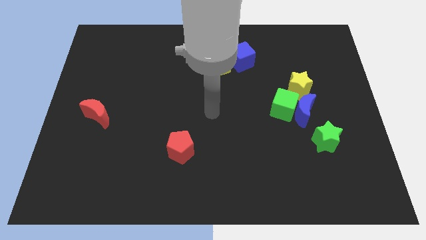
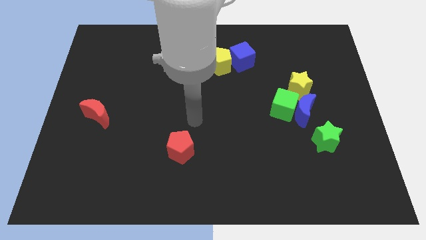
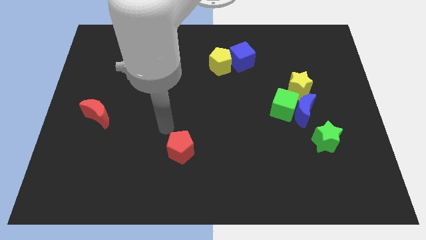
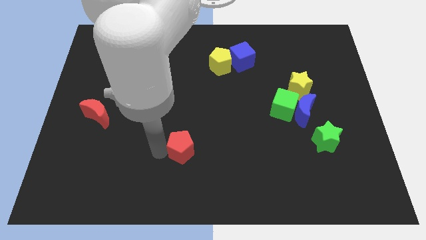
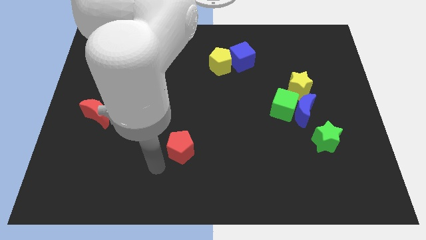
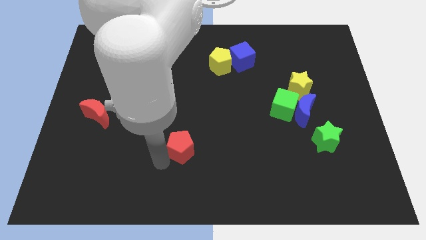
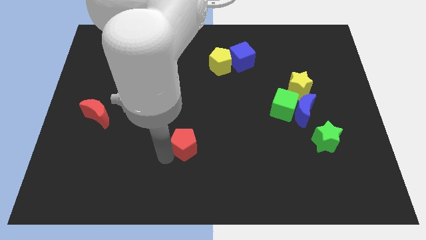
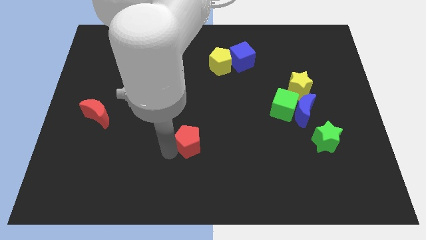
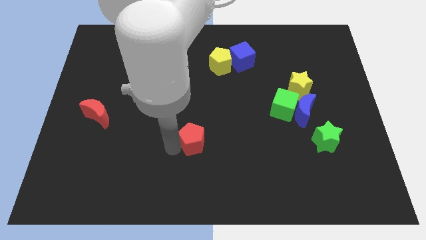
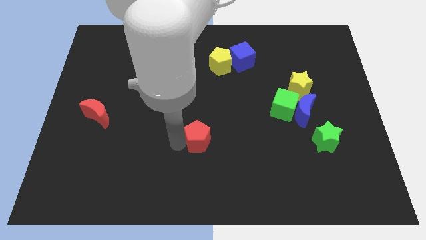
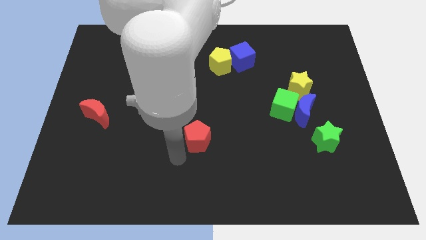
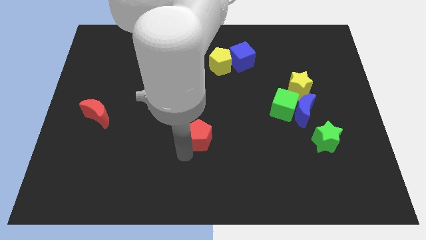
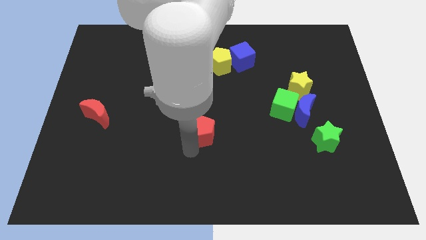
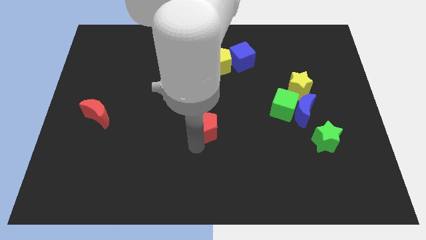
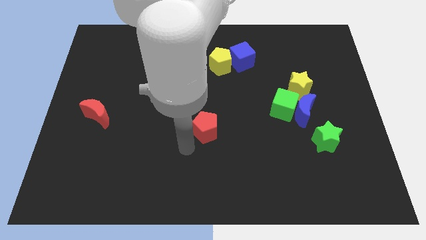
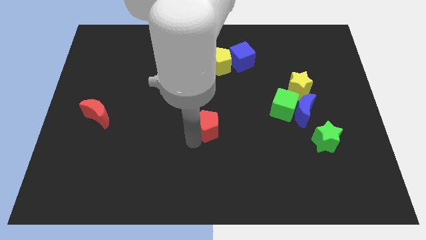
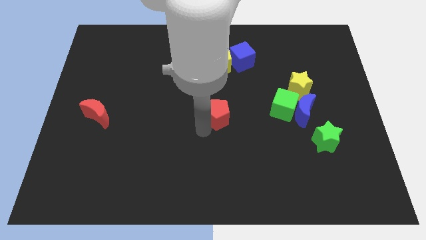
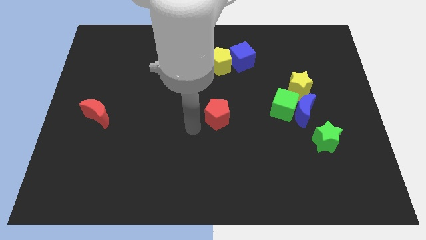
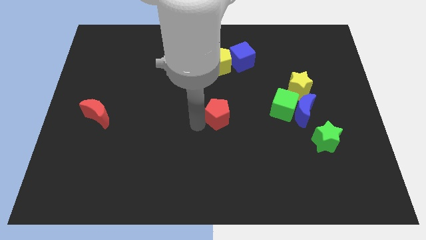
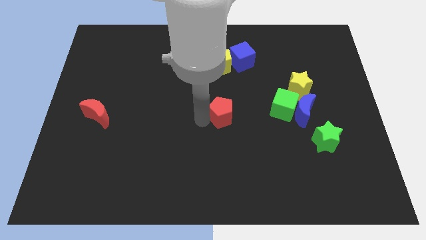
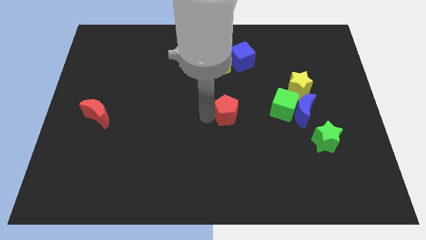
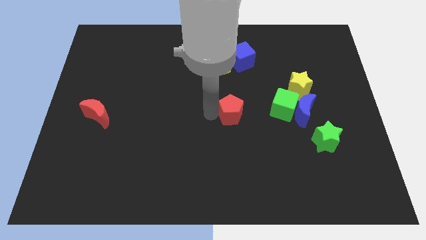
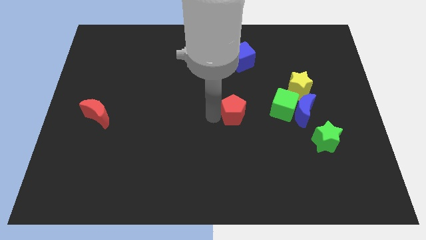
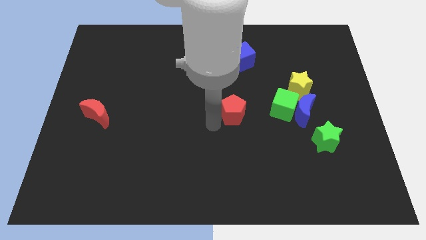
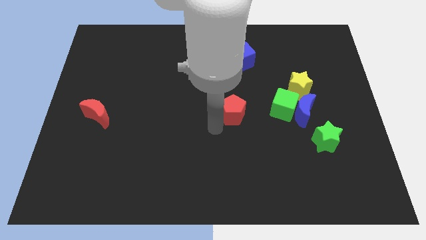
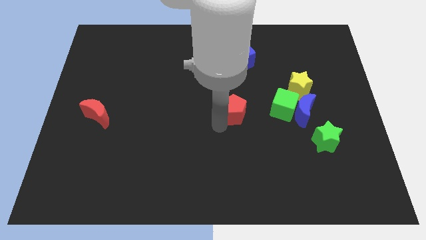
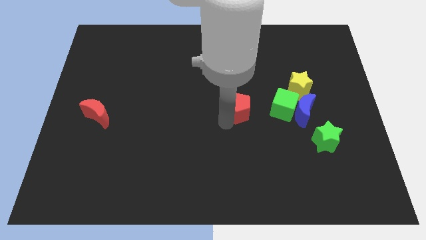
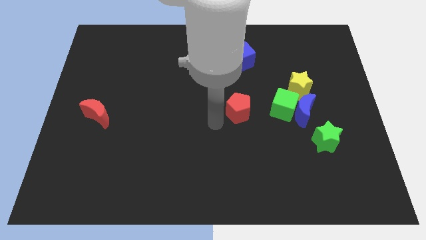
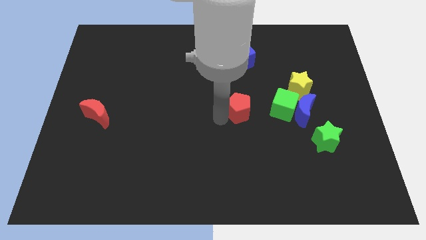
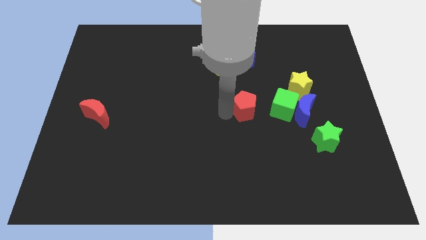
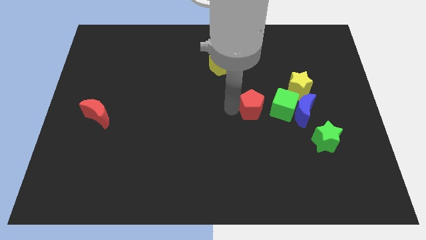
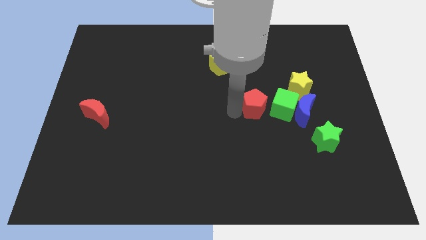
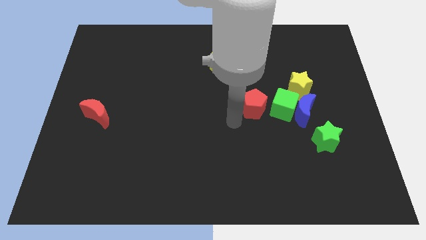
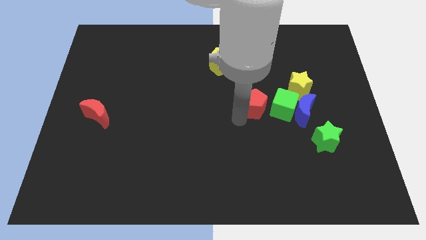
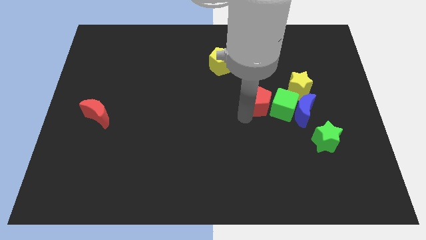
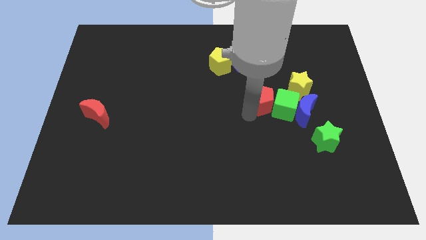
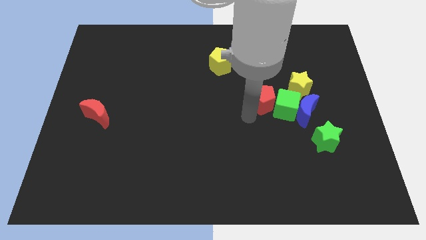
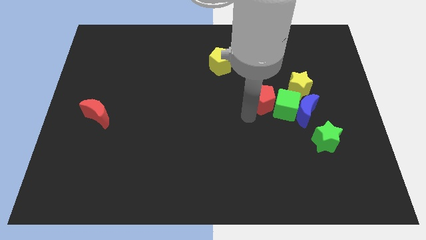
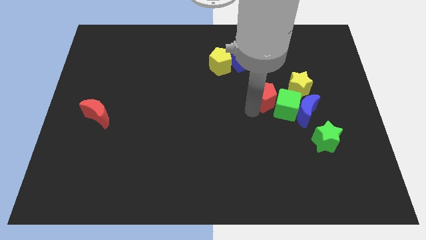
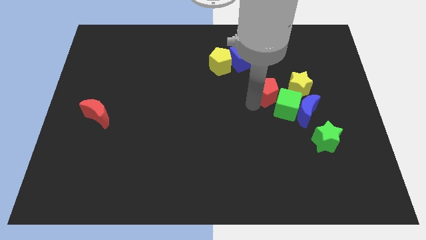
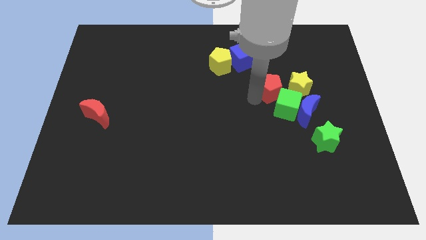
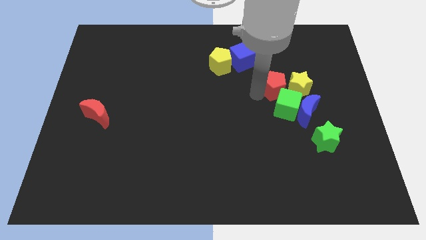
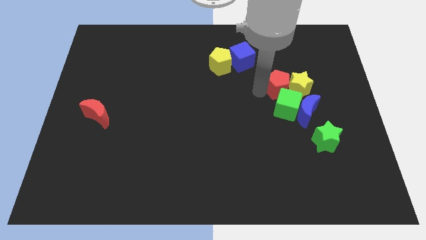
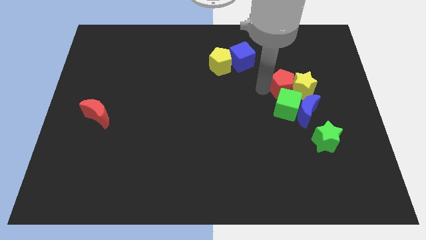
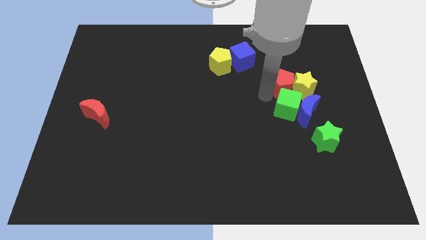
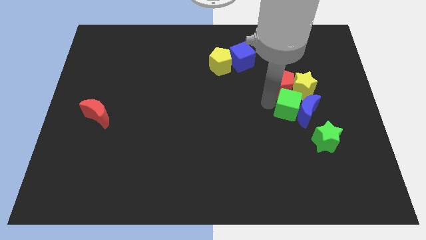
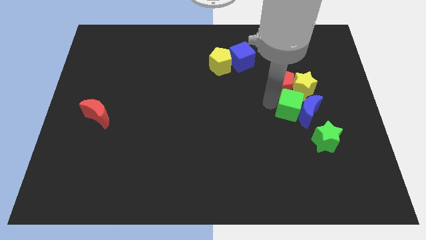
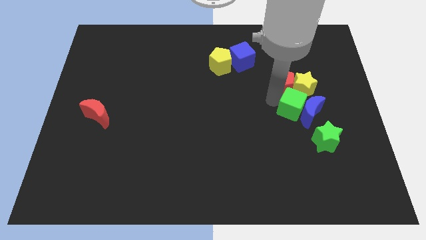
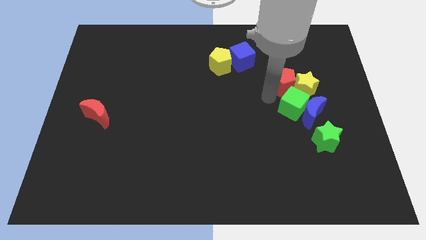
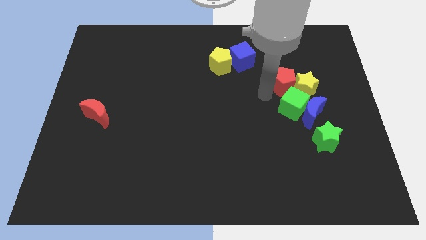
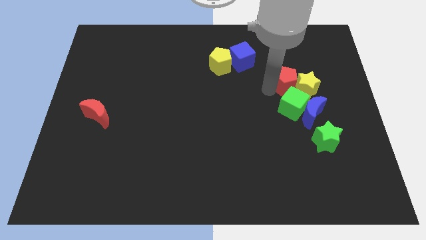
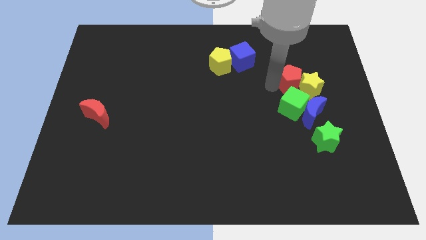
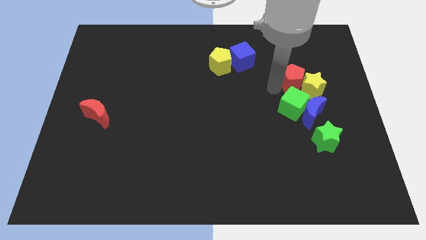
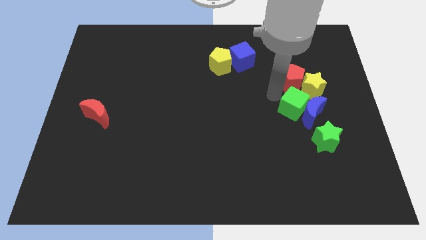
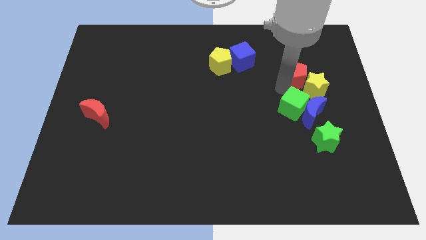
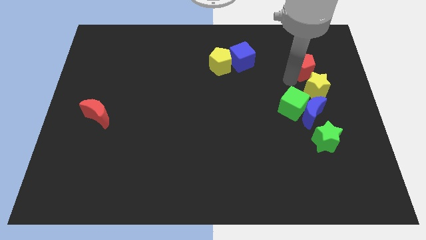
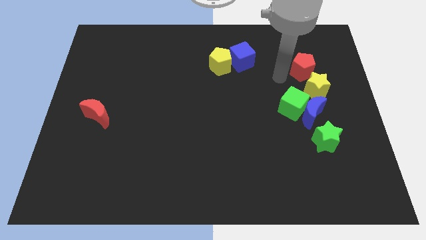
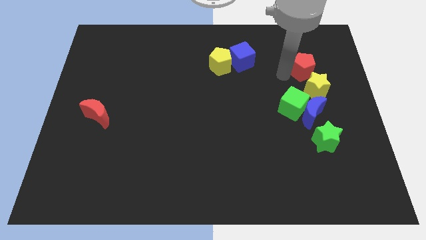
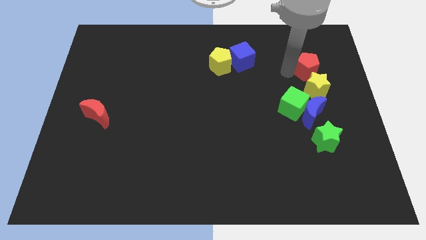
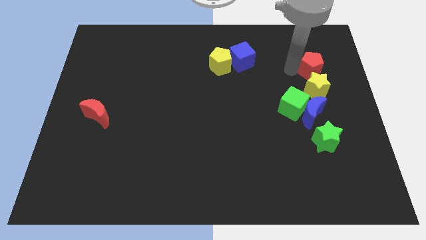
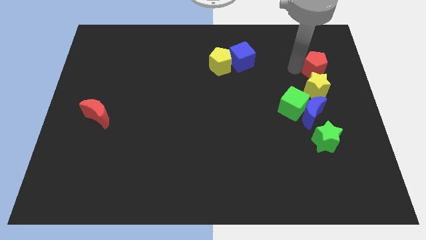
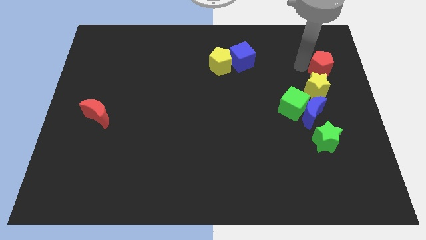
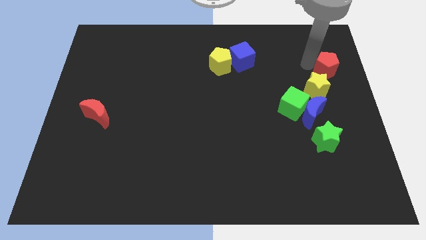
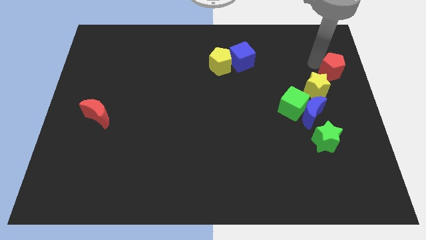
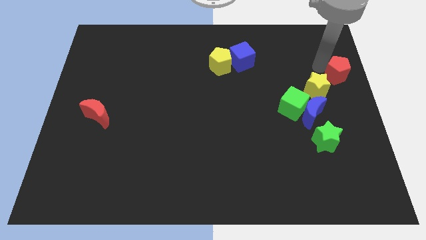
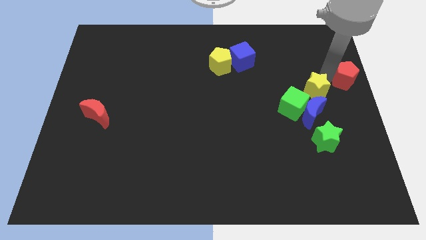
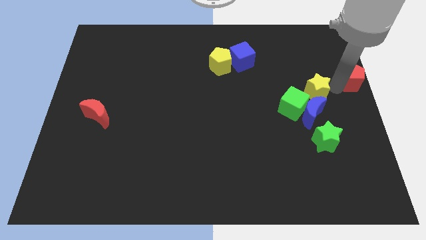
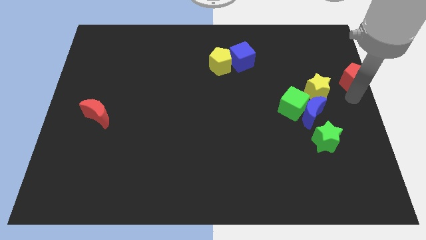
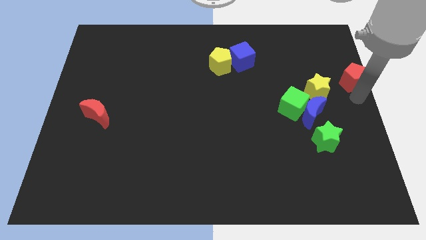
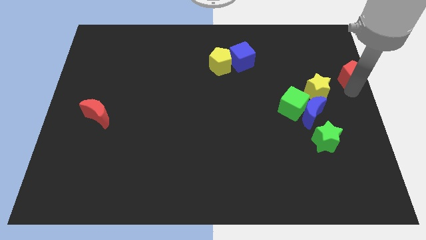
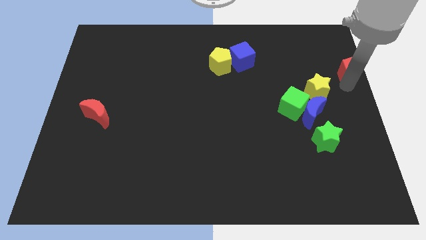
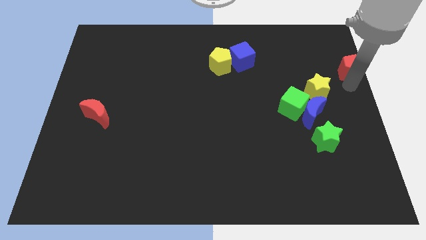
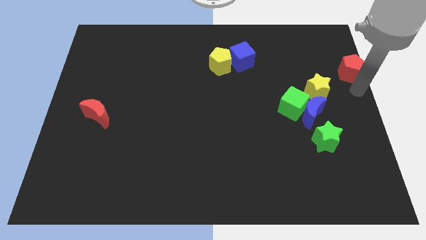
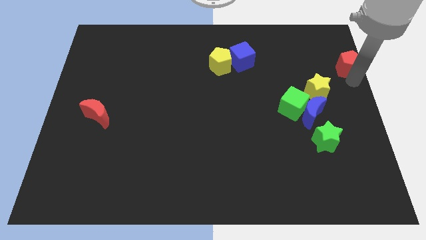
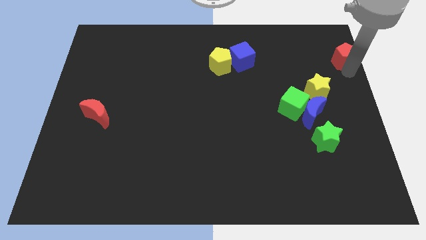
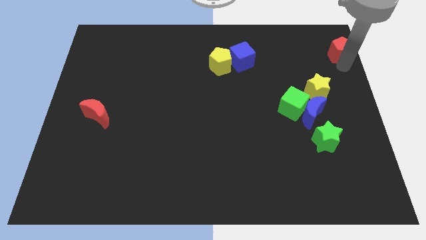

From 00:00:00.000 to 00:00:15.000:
put the red pentagon to the top right corner
